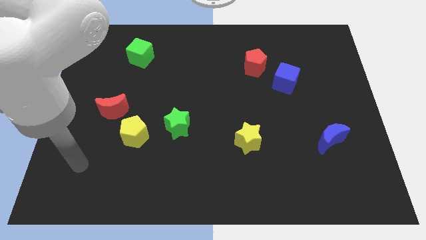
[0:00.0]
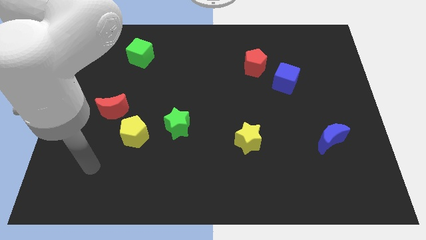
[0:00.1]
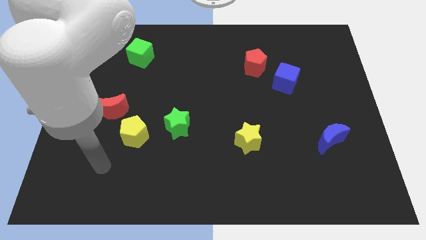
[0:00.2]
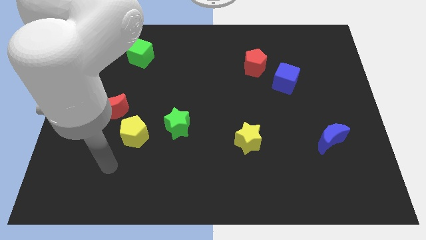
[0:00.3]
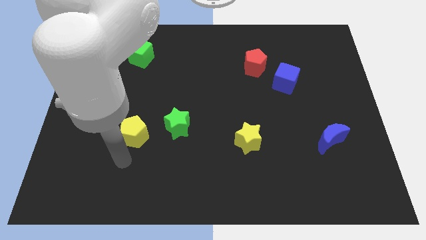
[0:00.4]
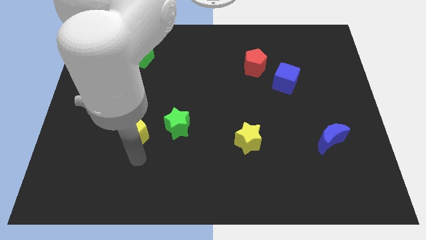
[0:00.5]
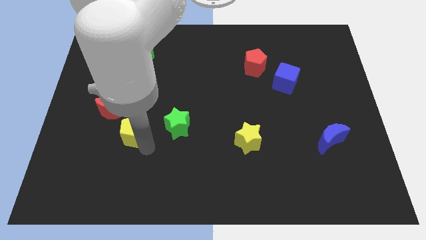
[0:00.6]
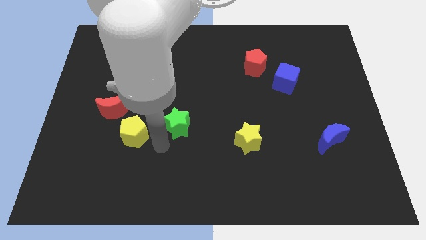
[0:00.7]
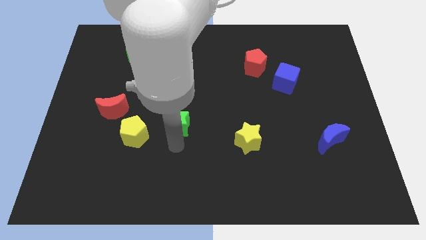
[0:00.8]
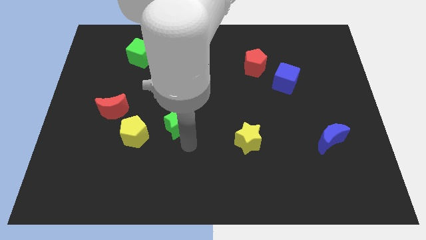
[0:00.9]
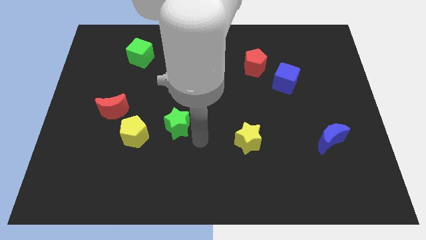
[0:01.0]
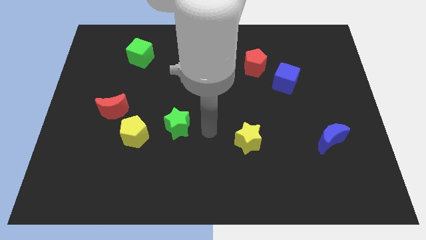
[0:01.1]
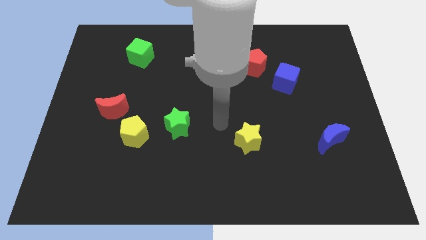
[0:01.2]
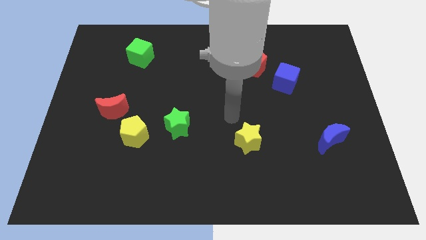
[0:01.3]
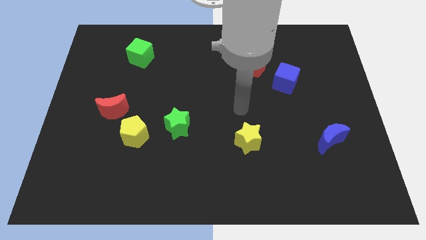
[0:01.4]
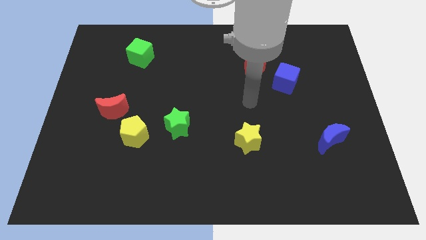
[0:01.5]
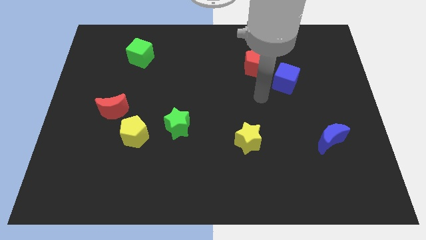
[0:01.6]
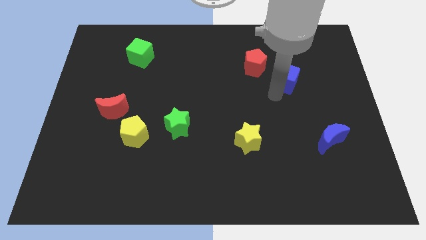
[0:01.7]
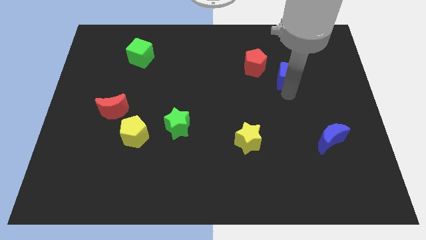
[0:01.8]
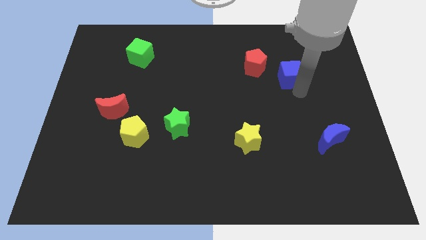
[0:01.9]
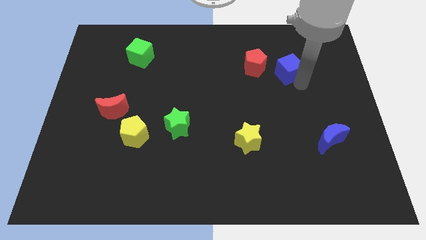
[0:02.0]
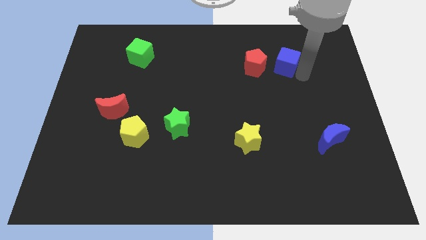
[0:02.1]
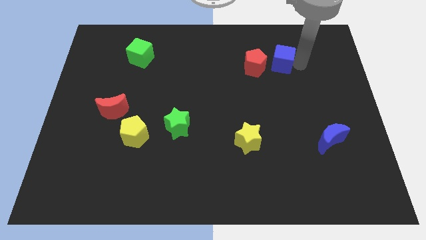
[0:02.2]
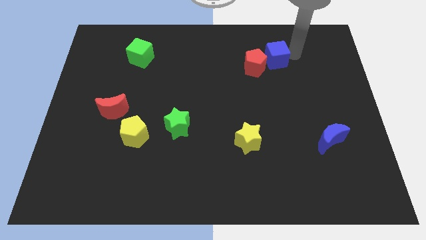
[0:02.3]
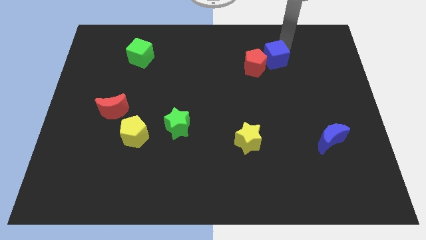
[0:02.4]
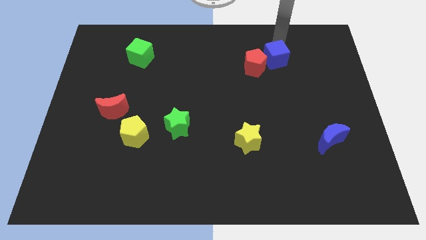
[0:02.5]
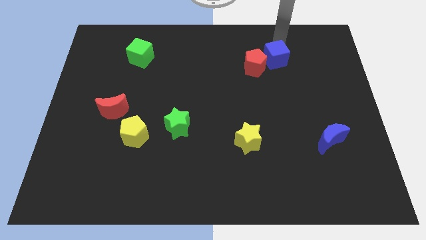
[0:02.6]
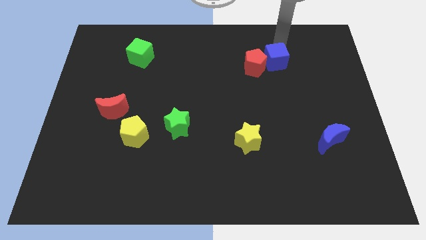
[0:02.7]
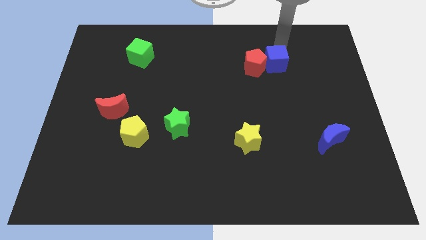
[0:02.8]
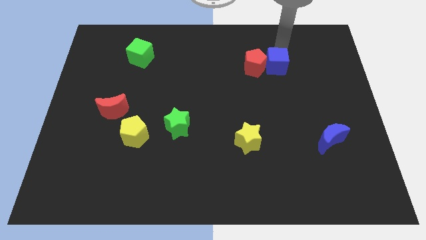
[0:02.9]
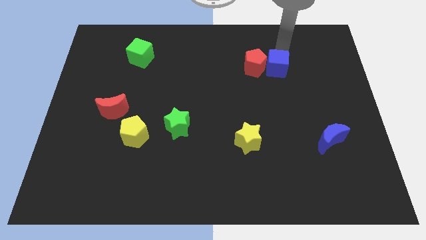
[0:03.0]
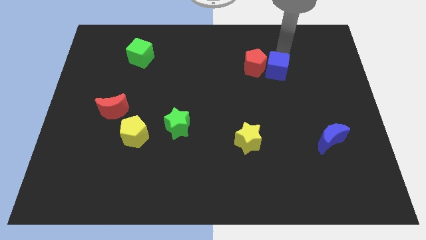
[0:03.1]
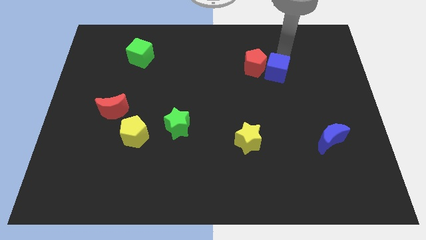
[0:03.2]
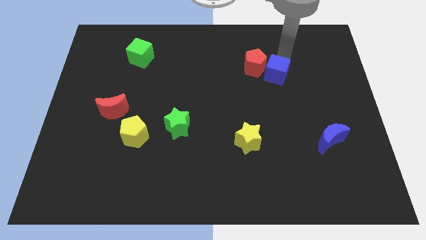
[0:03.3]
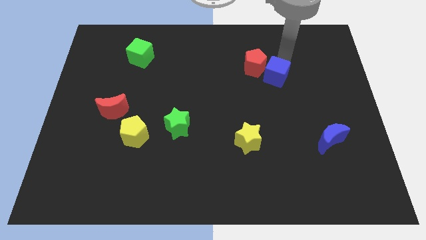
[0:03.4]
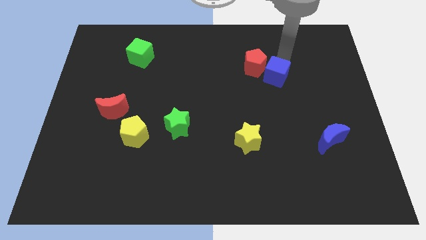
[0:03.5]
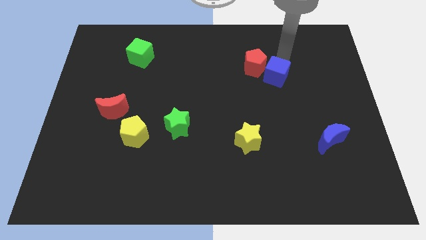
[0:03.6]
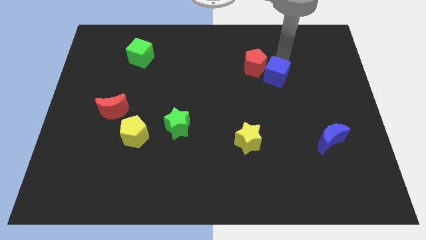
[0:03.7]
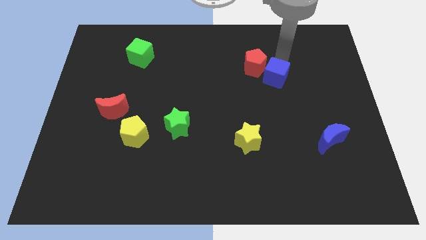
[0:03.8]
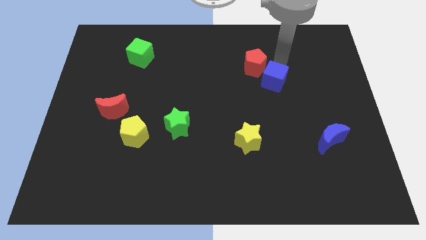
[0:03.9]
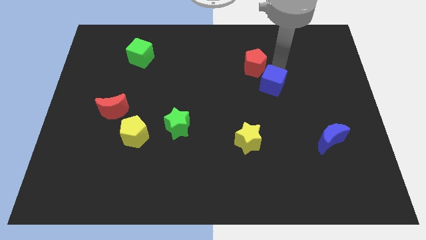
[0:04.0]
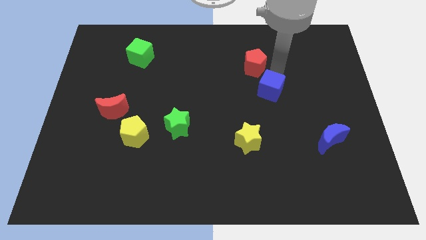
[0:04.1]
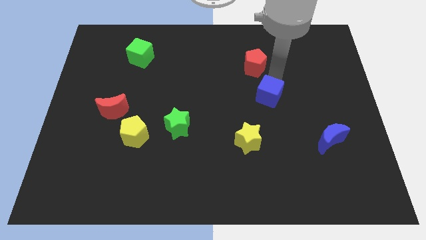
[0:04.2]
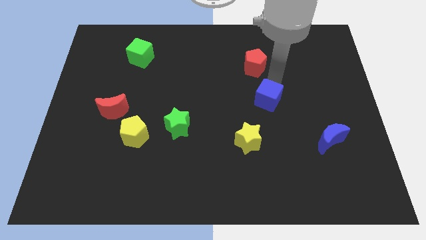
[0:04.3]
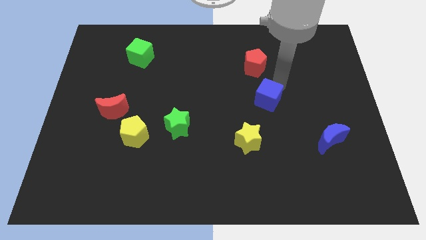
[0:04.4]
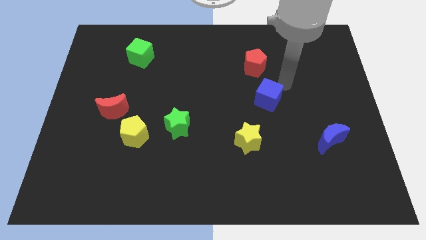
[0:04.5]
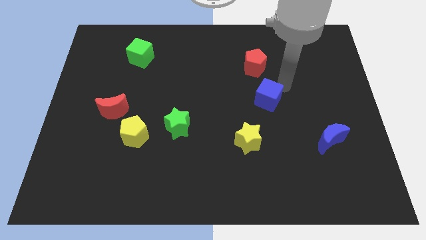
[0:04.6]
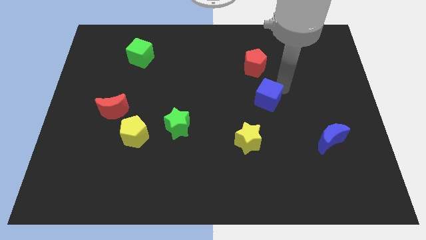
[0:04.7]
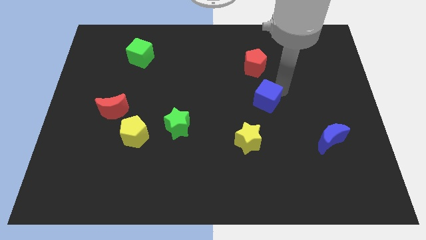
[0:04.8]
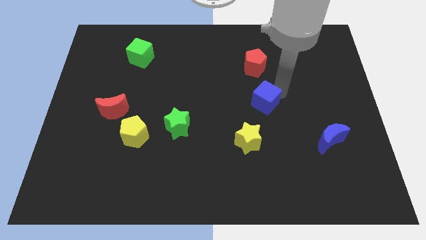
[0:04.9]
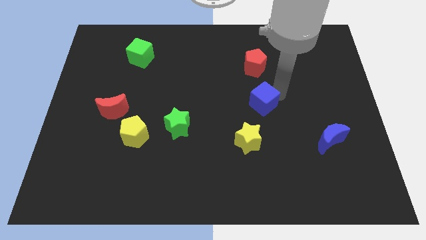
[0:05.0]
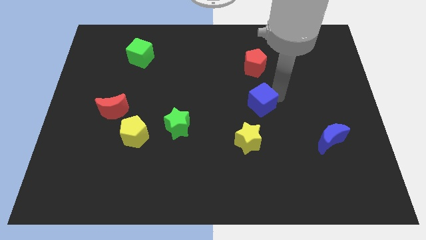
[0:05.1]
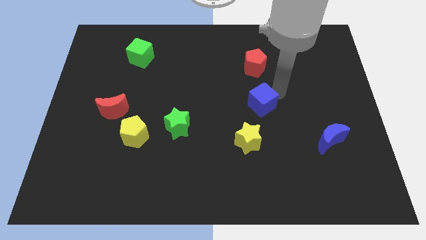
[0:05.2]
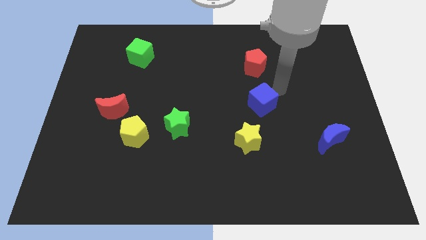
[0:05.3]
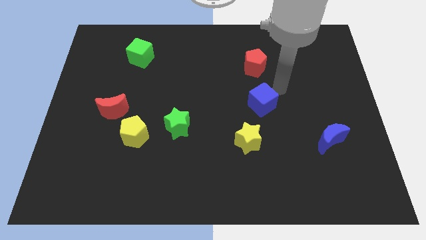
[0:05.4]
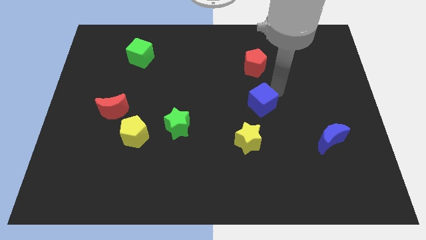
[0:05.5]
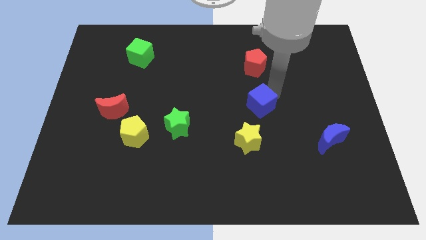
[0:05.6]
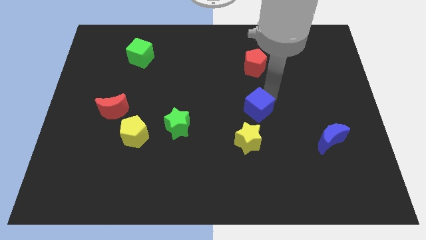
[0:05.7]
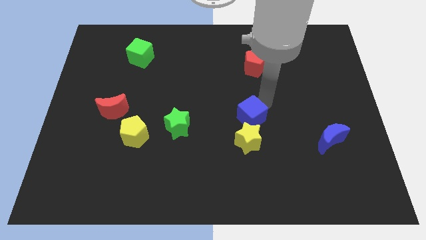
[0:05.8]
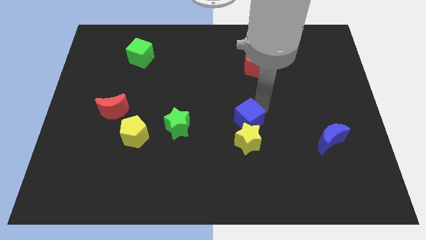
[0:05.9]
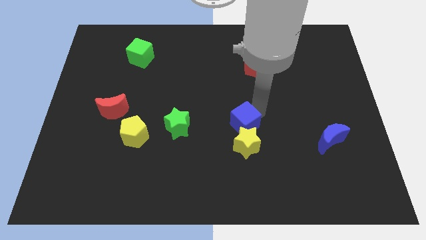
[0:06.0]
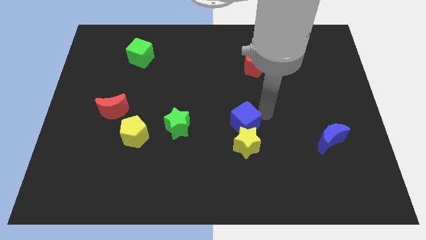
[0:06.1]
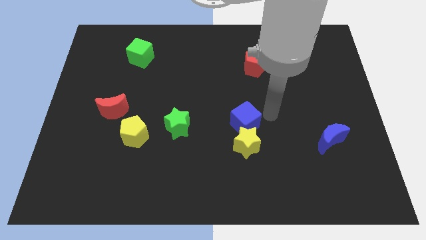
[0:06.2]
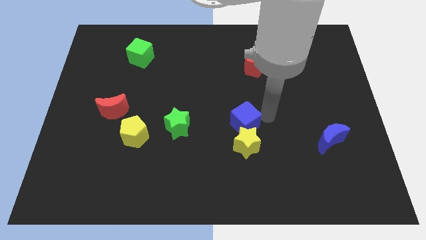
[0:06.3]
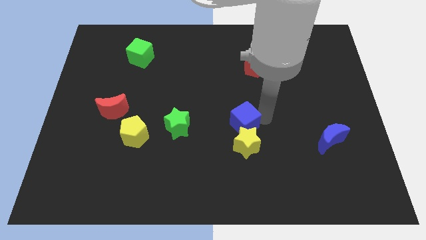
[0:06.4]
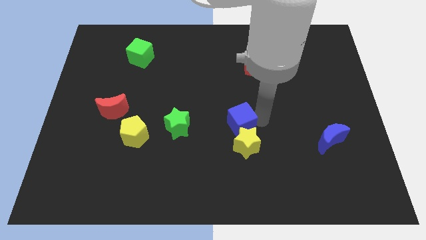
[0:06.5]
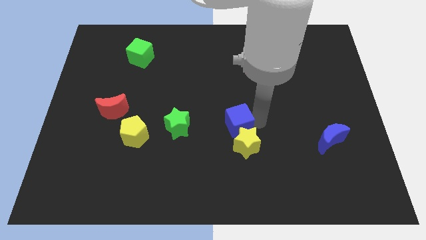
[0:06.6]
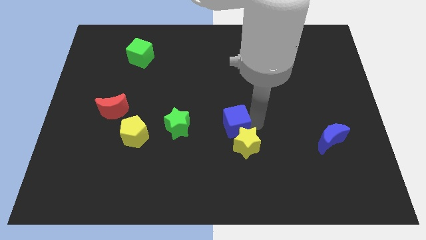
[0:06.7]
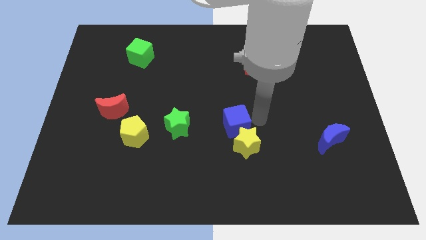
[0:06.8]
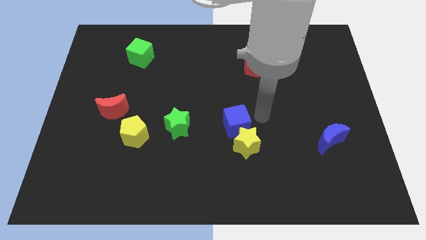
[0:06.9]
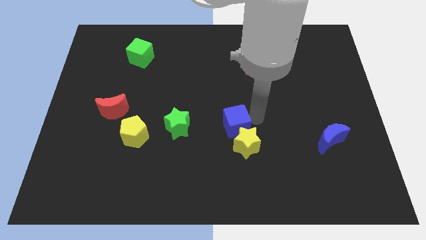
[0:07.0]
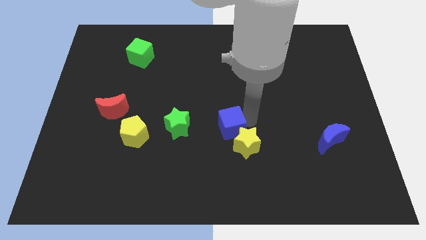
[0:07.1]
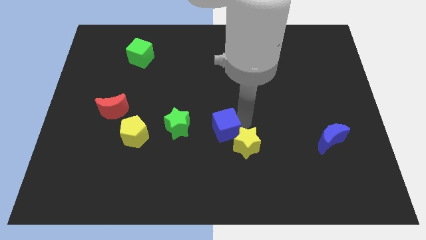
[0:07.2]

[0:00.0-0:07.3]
slide the blue cube downwards and left diagonally

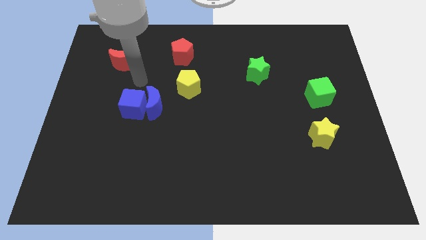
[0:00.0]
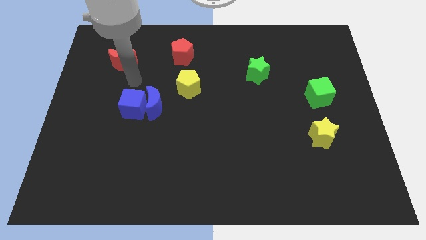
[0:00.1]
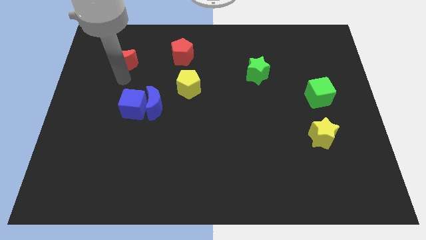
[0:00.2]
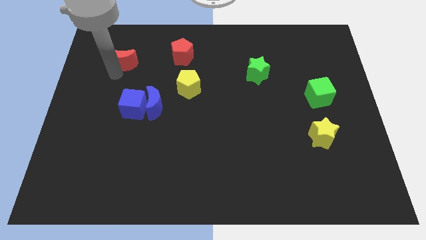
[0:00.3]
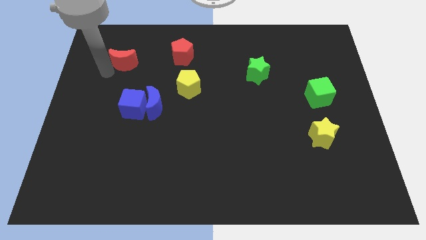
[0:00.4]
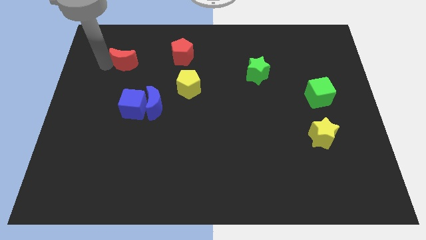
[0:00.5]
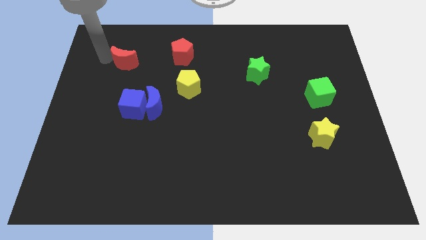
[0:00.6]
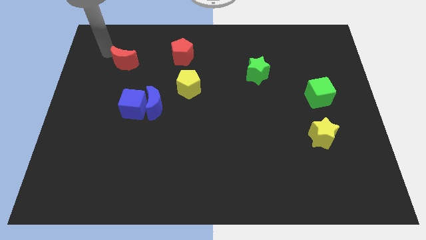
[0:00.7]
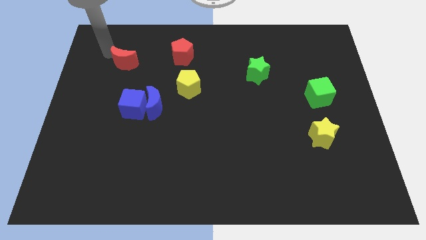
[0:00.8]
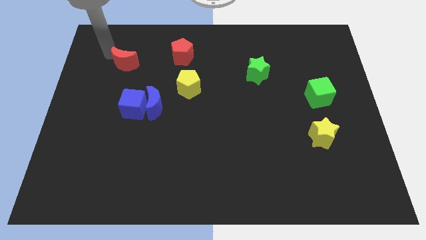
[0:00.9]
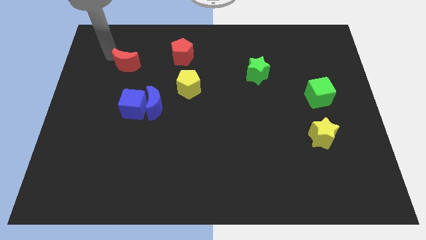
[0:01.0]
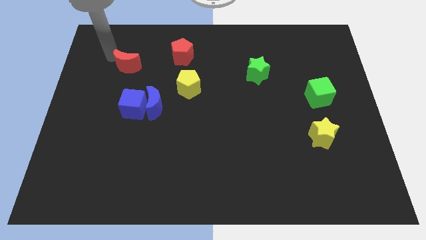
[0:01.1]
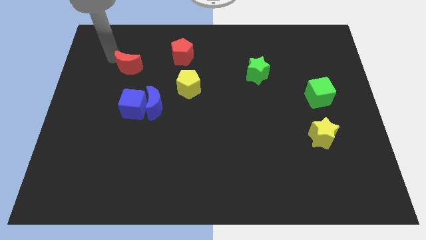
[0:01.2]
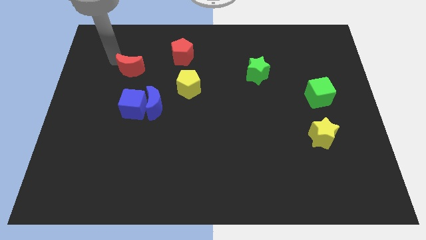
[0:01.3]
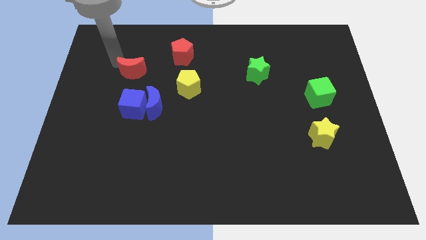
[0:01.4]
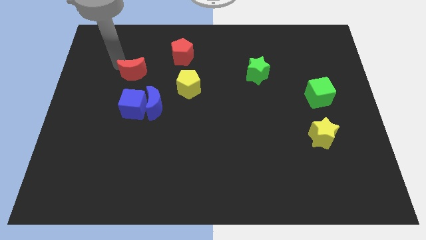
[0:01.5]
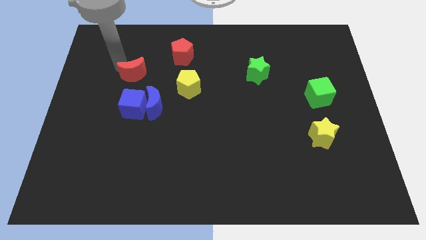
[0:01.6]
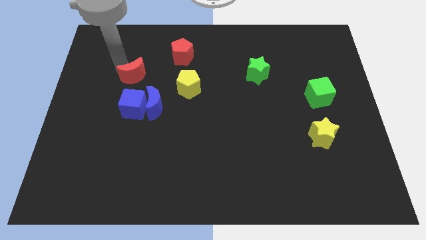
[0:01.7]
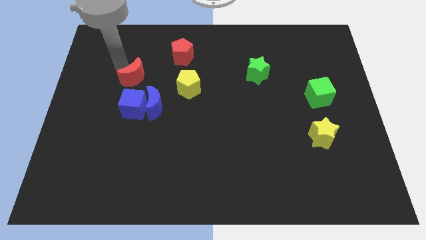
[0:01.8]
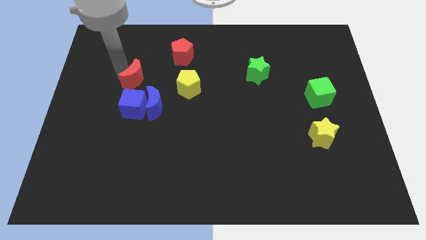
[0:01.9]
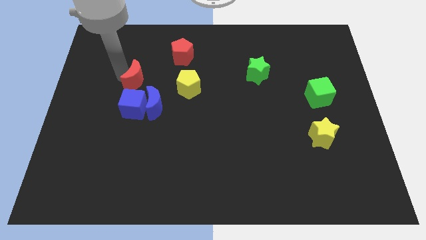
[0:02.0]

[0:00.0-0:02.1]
push the red moon down and then to the right slightly
